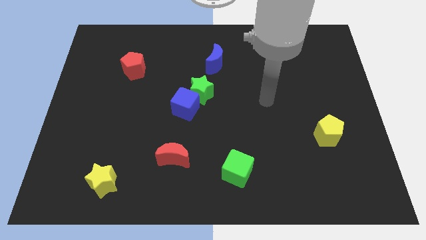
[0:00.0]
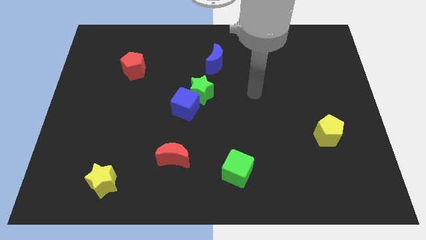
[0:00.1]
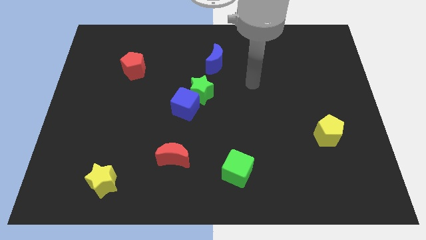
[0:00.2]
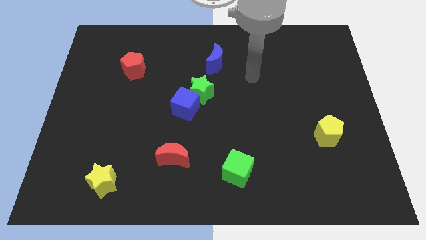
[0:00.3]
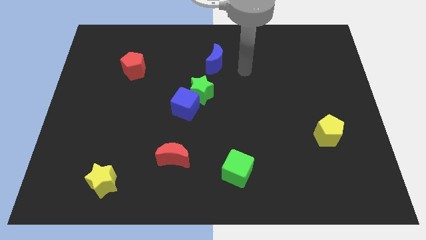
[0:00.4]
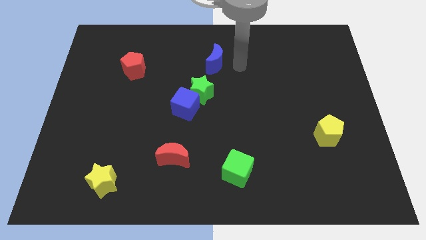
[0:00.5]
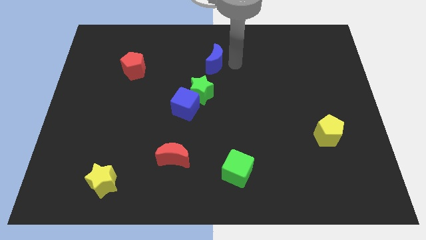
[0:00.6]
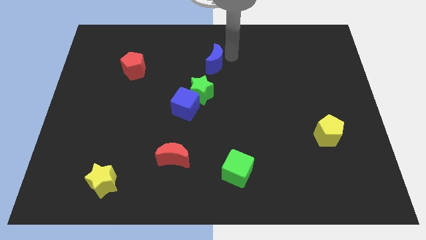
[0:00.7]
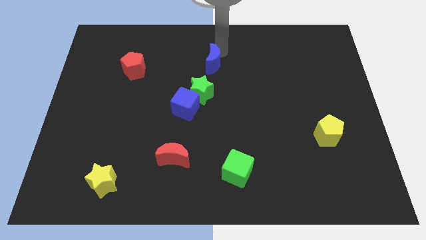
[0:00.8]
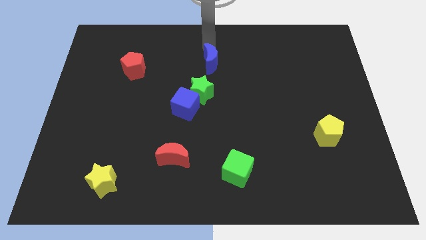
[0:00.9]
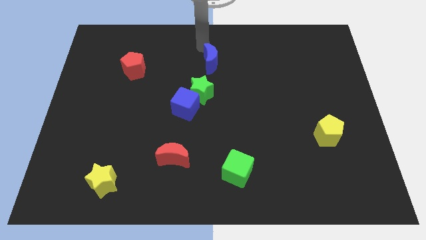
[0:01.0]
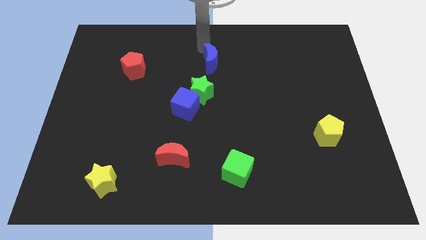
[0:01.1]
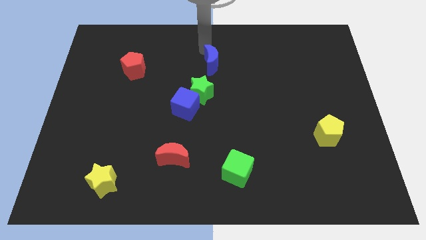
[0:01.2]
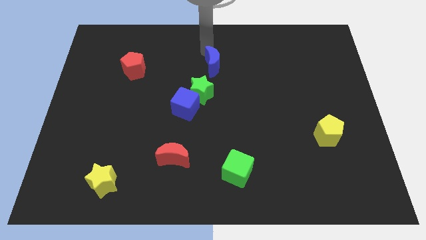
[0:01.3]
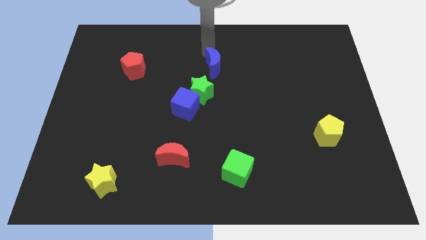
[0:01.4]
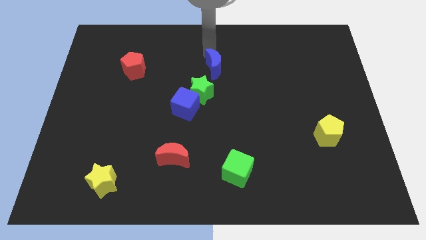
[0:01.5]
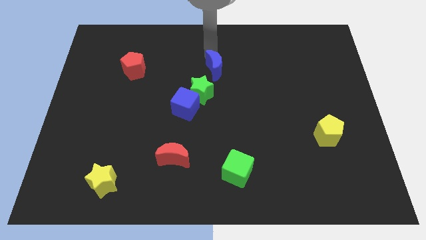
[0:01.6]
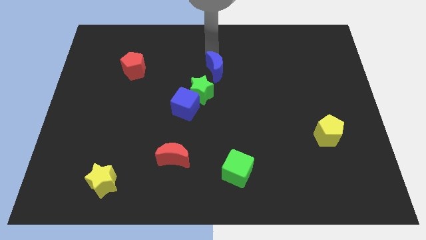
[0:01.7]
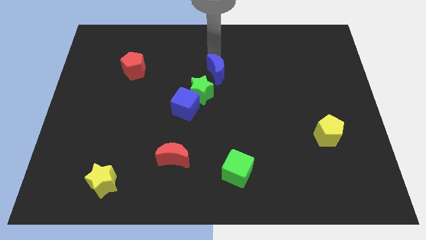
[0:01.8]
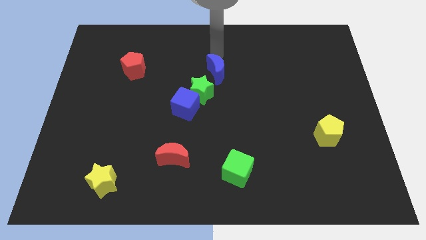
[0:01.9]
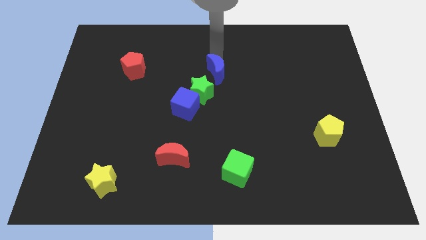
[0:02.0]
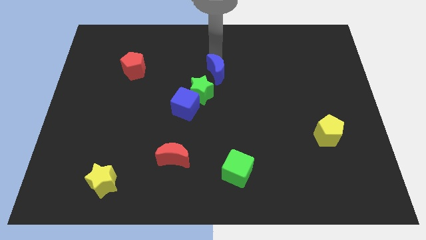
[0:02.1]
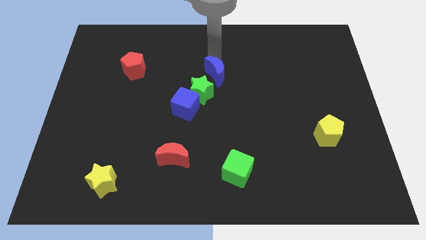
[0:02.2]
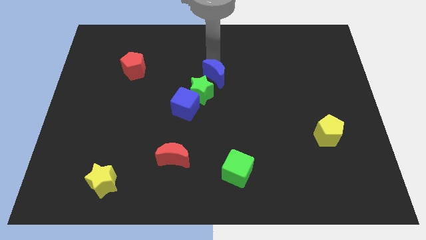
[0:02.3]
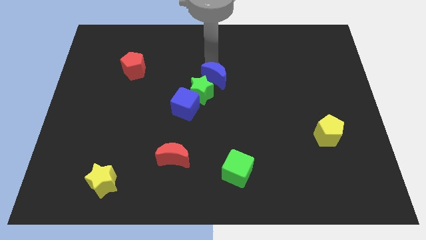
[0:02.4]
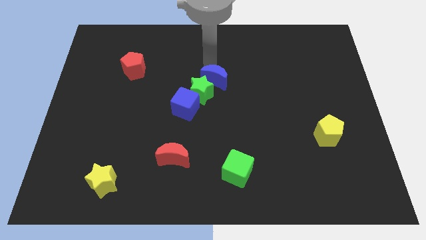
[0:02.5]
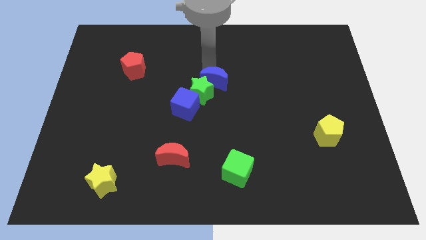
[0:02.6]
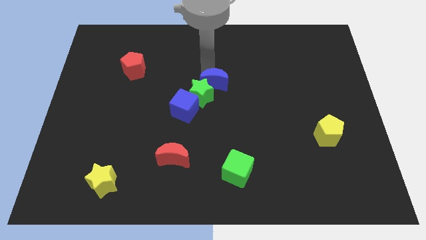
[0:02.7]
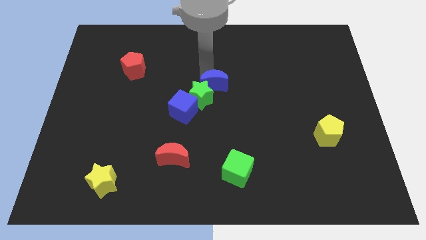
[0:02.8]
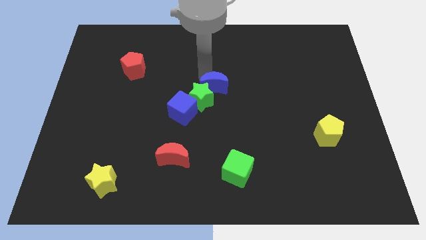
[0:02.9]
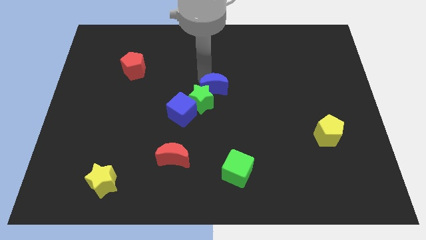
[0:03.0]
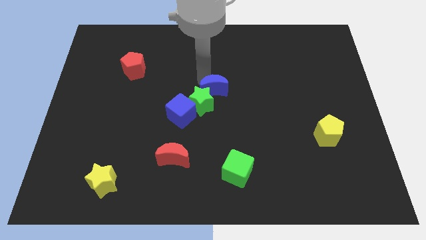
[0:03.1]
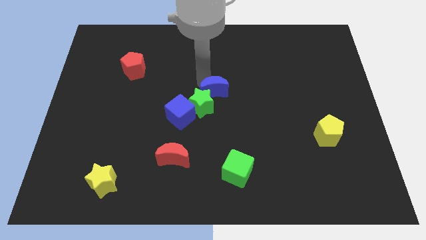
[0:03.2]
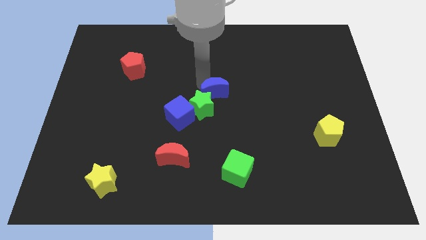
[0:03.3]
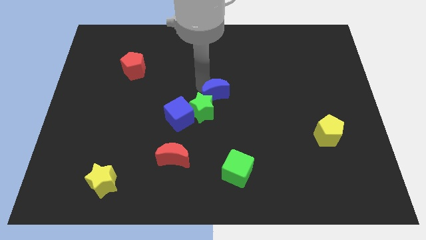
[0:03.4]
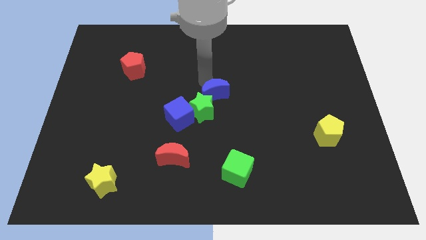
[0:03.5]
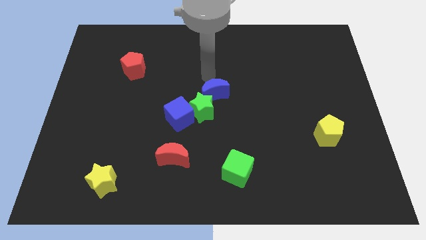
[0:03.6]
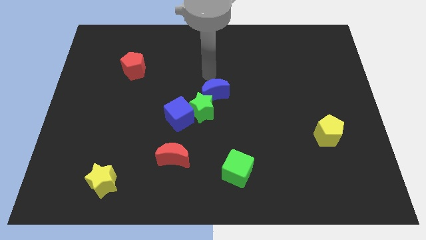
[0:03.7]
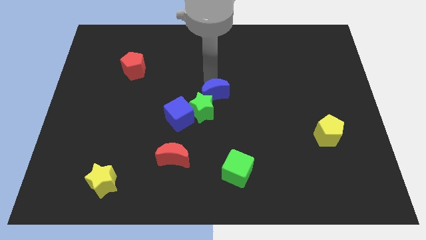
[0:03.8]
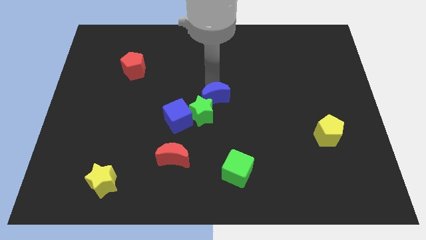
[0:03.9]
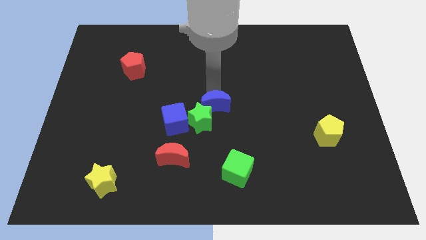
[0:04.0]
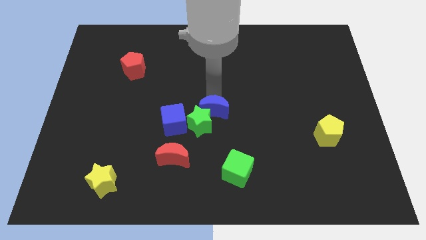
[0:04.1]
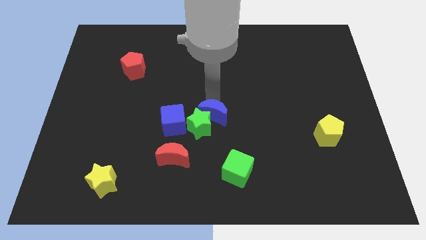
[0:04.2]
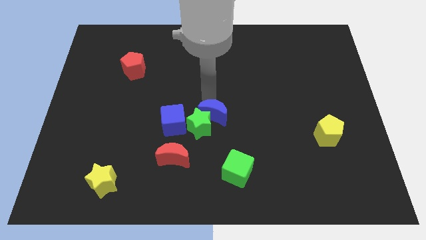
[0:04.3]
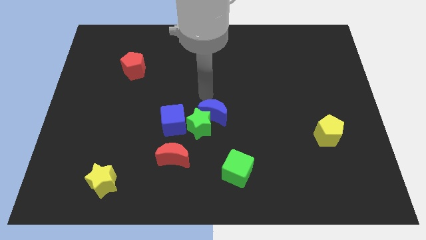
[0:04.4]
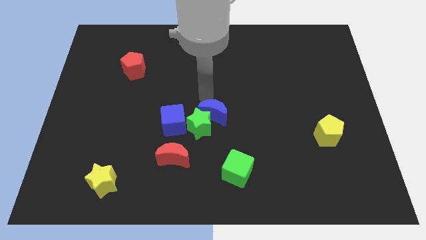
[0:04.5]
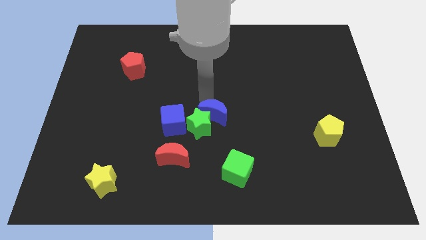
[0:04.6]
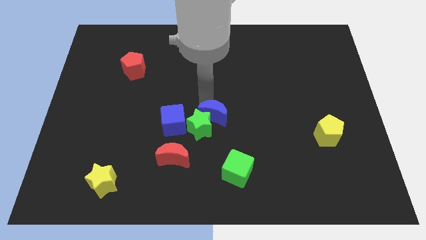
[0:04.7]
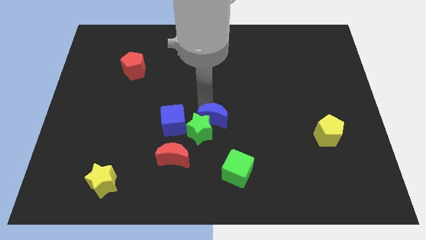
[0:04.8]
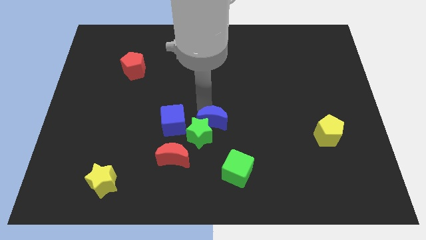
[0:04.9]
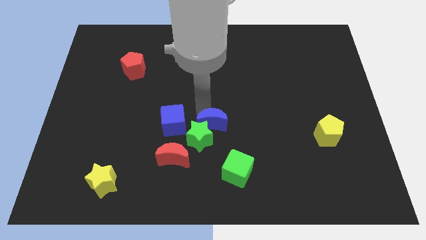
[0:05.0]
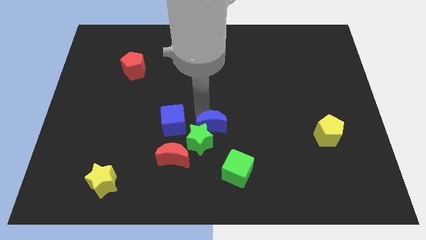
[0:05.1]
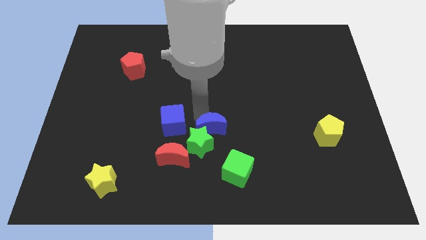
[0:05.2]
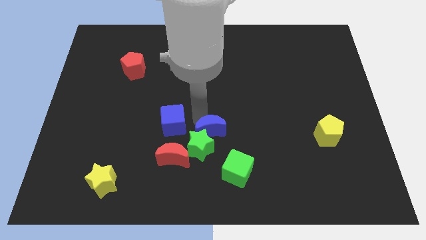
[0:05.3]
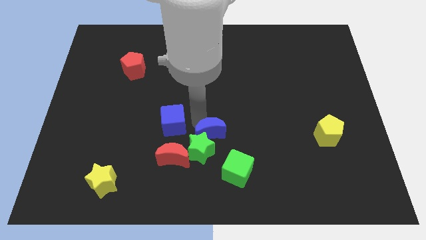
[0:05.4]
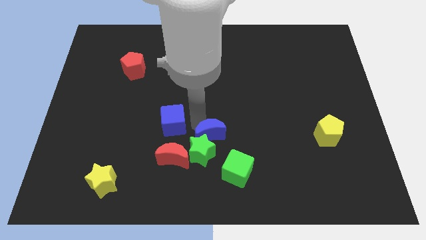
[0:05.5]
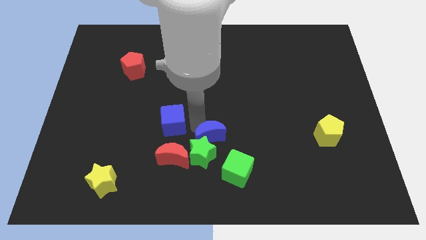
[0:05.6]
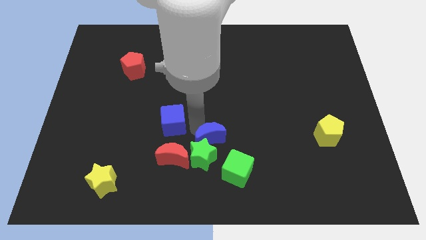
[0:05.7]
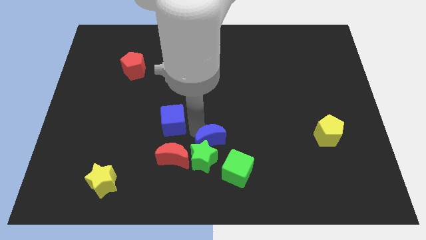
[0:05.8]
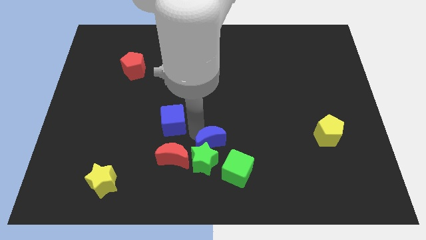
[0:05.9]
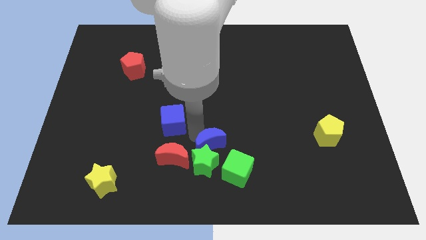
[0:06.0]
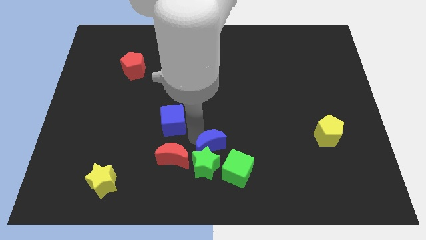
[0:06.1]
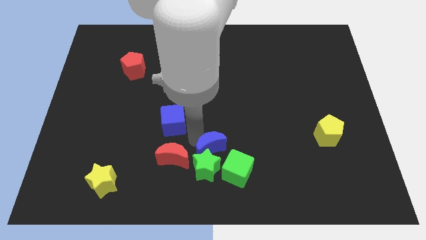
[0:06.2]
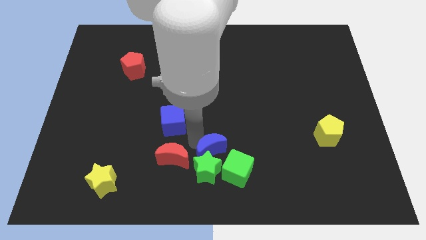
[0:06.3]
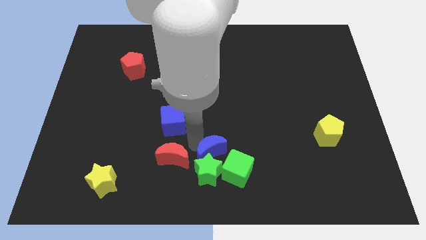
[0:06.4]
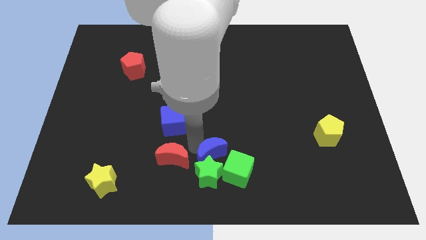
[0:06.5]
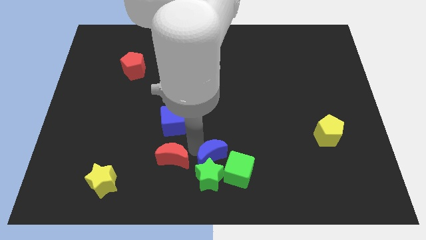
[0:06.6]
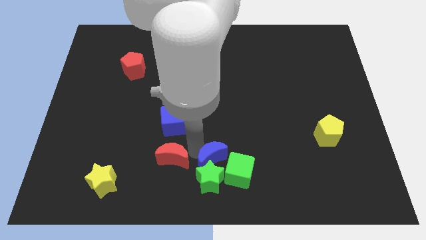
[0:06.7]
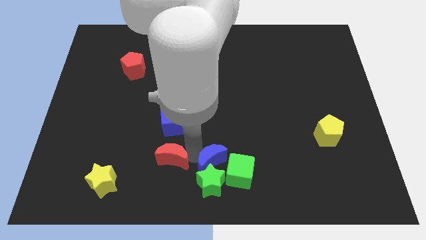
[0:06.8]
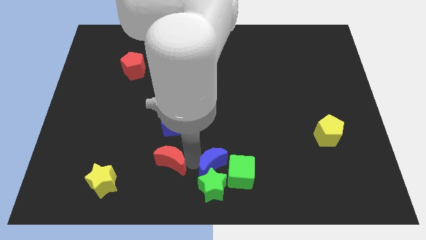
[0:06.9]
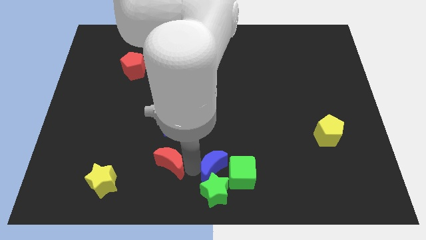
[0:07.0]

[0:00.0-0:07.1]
push the blue moon towards the green cube

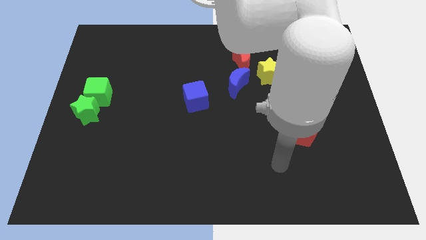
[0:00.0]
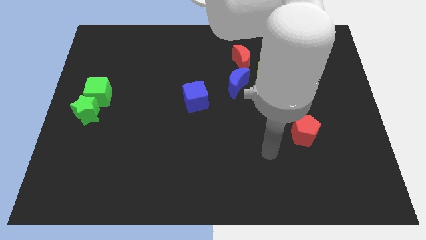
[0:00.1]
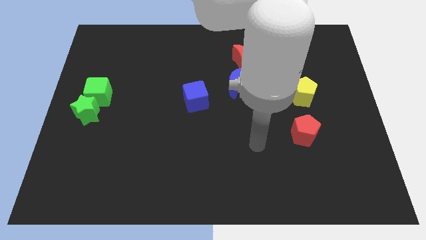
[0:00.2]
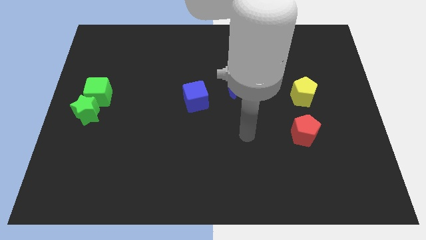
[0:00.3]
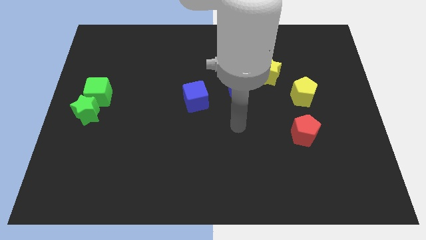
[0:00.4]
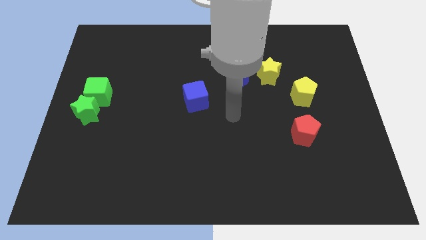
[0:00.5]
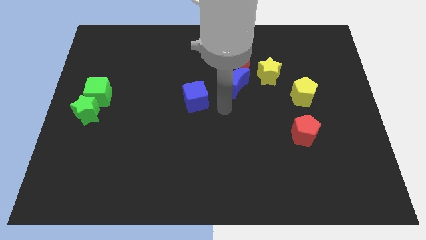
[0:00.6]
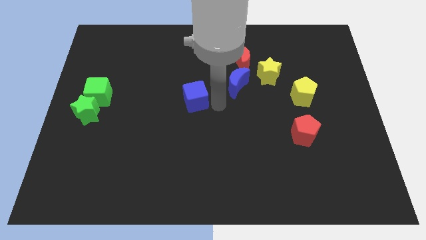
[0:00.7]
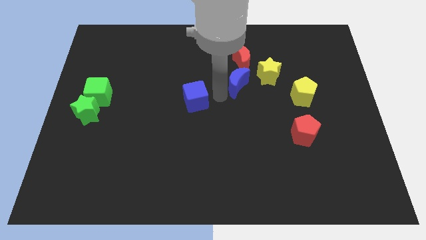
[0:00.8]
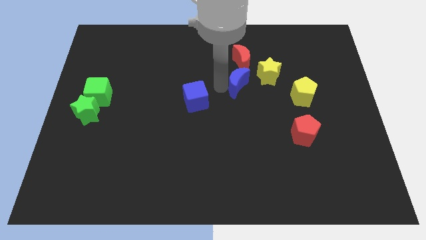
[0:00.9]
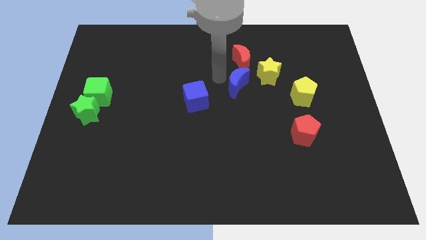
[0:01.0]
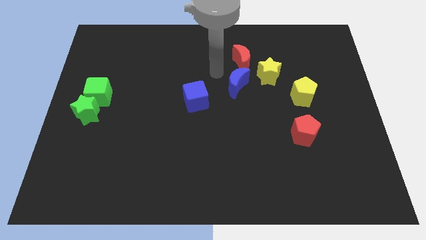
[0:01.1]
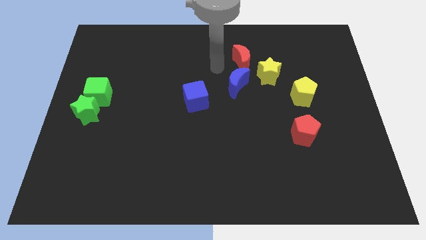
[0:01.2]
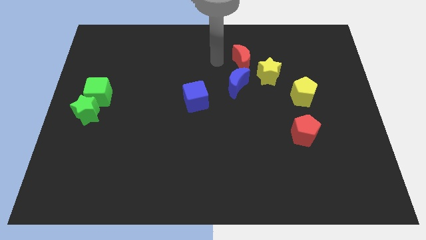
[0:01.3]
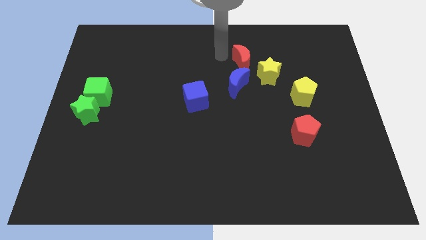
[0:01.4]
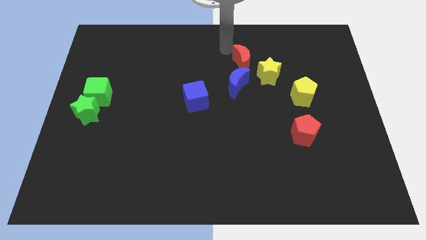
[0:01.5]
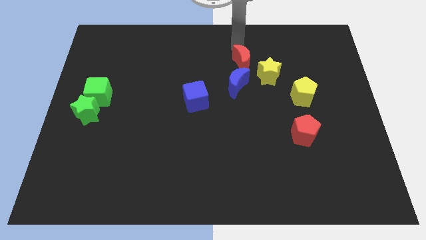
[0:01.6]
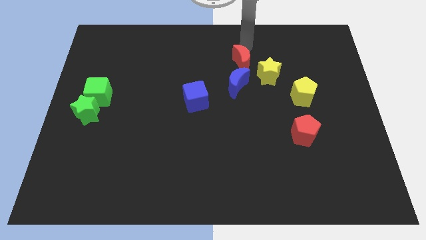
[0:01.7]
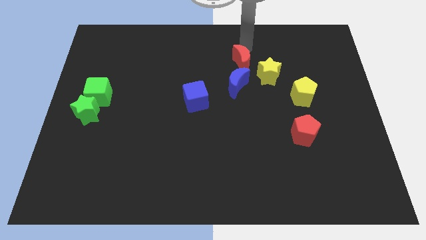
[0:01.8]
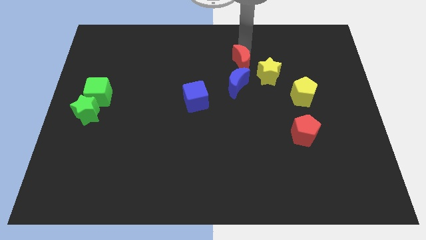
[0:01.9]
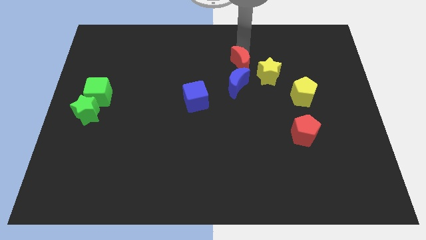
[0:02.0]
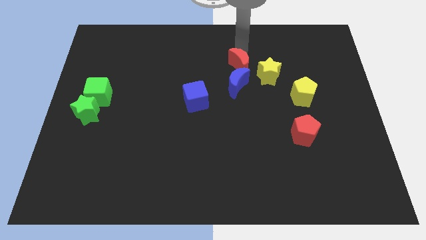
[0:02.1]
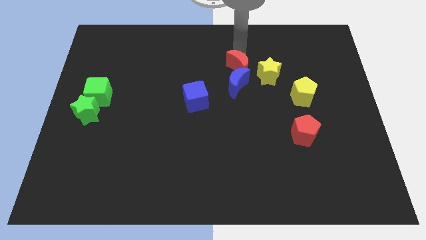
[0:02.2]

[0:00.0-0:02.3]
move the red moon next to the blue moon
